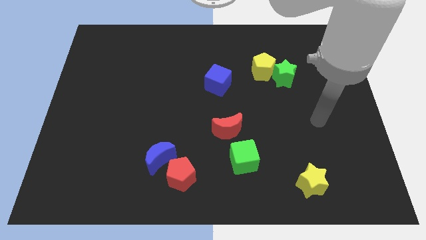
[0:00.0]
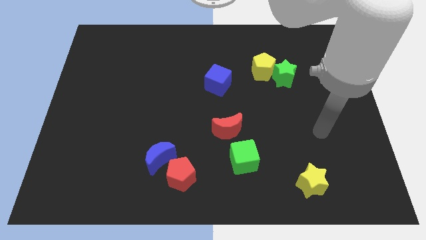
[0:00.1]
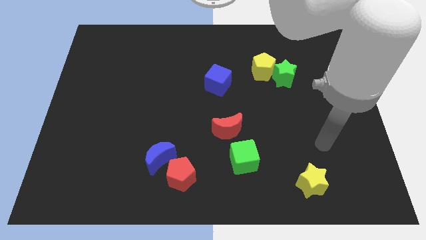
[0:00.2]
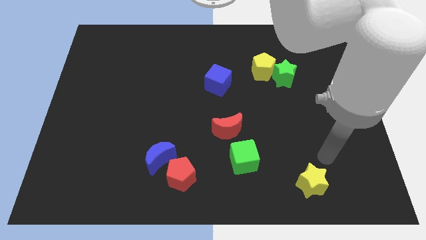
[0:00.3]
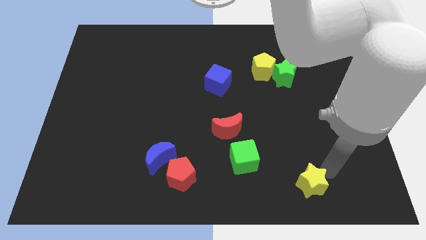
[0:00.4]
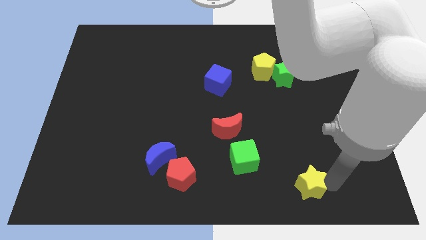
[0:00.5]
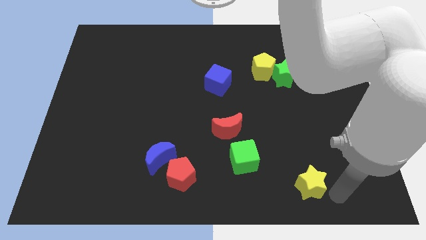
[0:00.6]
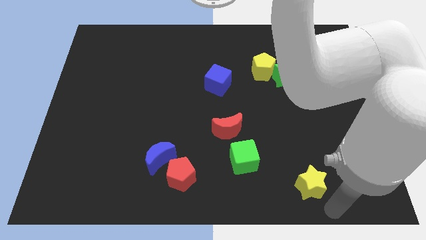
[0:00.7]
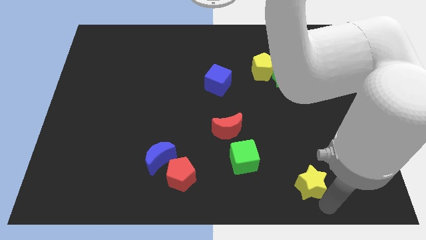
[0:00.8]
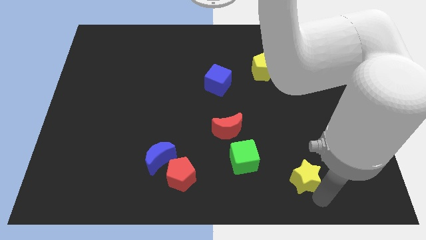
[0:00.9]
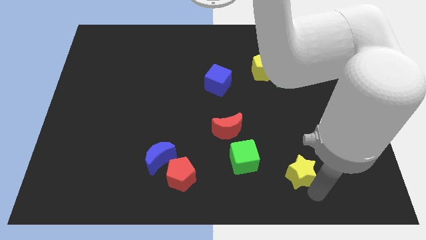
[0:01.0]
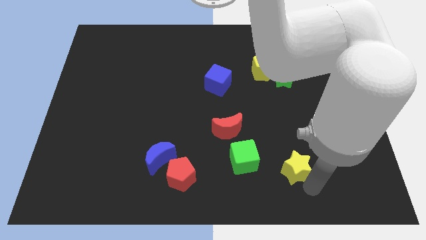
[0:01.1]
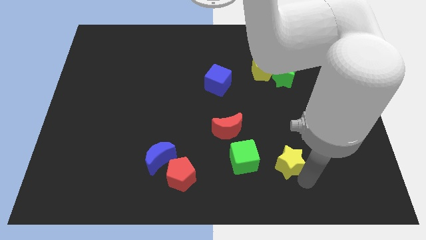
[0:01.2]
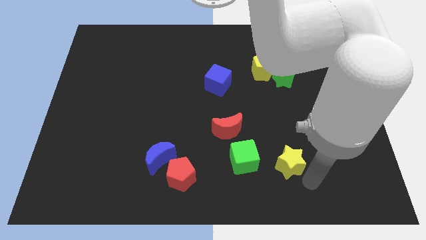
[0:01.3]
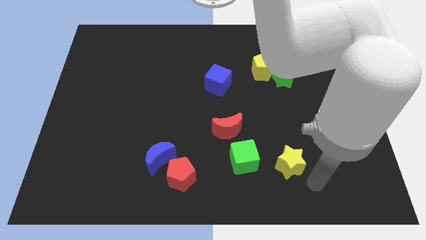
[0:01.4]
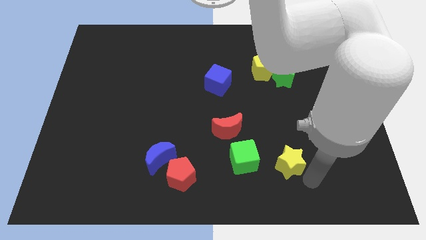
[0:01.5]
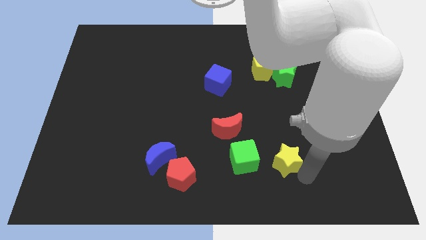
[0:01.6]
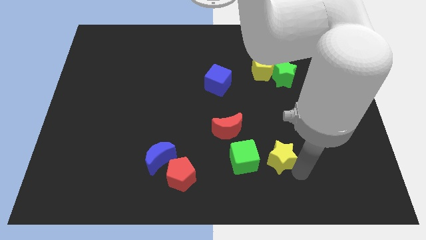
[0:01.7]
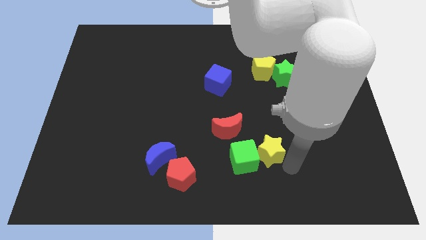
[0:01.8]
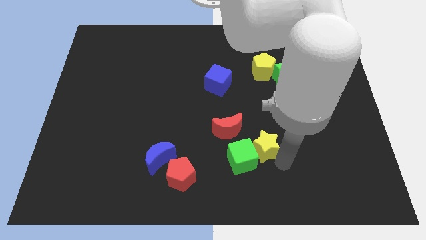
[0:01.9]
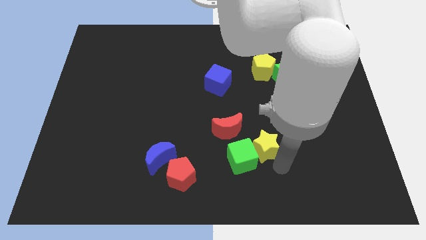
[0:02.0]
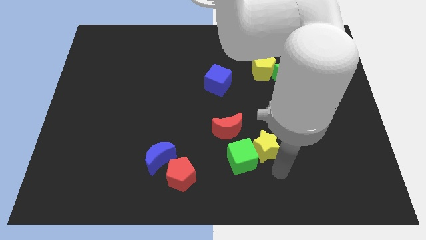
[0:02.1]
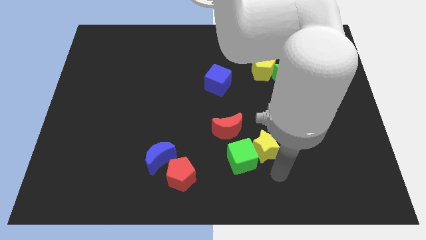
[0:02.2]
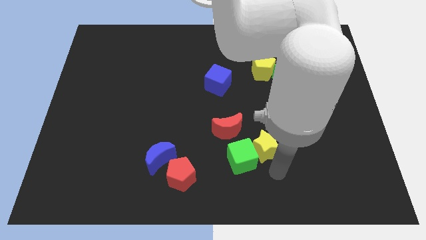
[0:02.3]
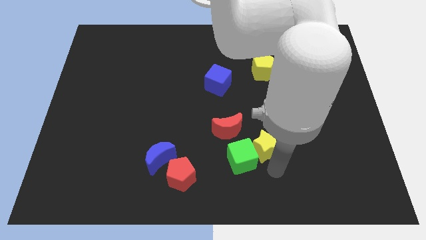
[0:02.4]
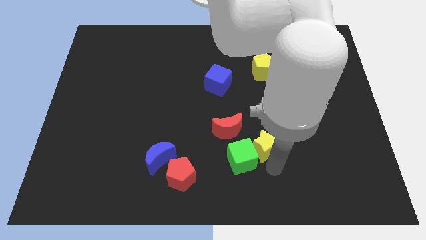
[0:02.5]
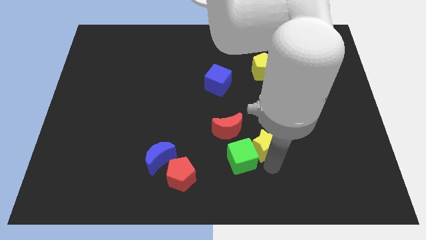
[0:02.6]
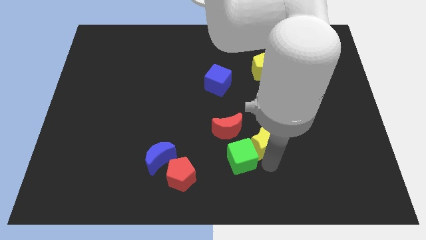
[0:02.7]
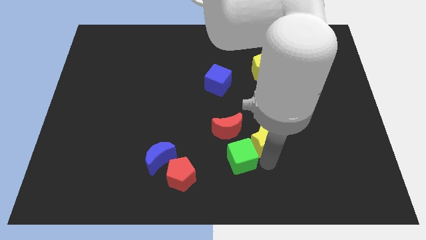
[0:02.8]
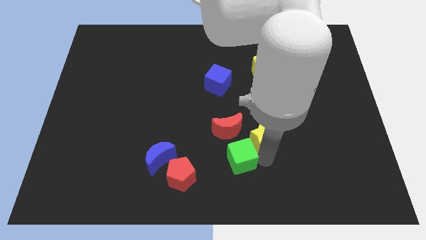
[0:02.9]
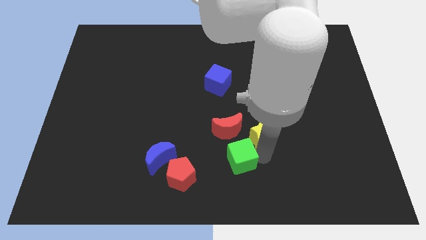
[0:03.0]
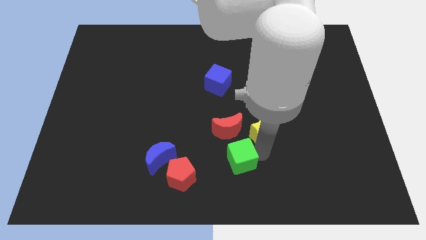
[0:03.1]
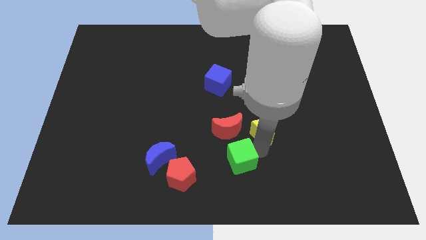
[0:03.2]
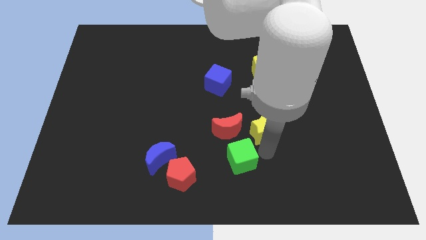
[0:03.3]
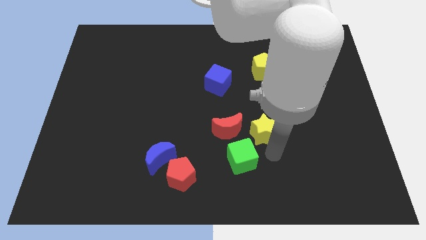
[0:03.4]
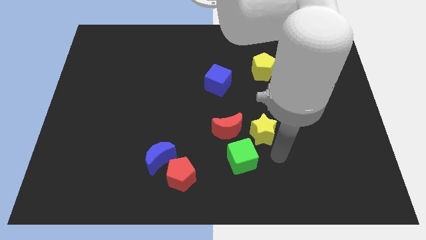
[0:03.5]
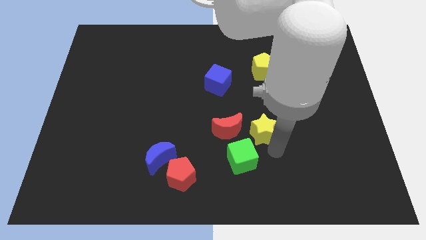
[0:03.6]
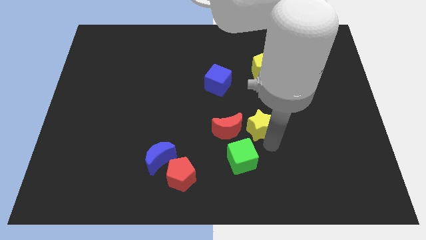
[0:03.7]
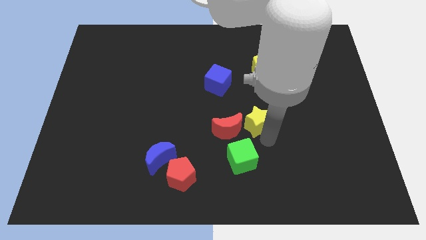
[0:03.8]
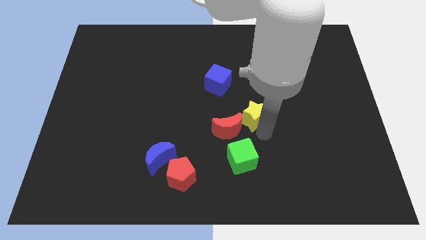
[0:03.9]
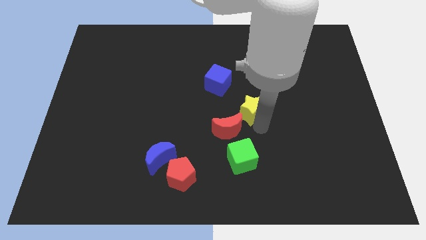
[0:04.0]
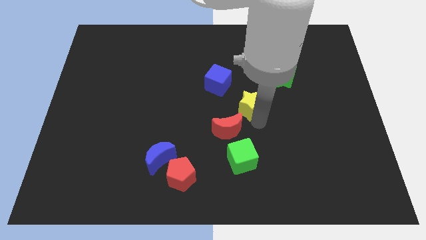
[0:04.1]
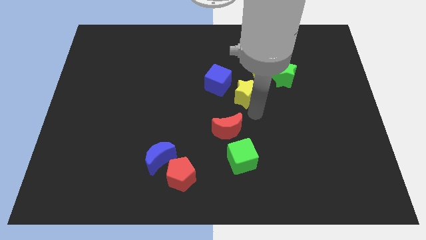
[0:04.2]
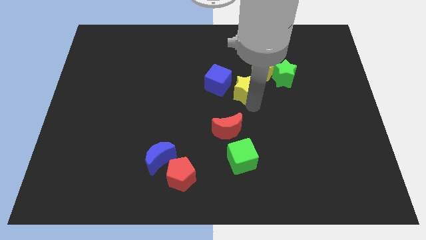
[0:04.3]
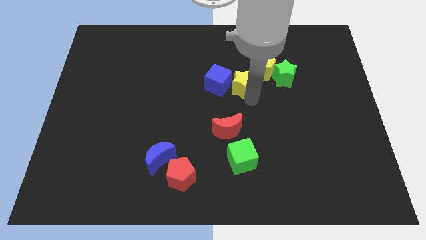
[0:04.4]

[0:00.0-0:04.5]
put the yellow star next to the blue cube

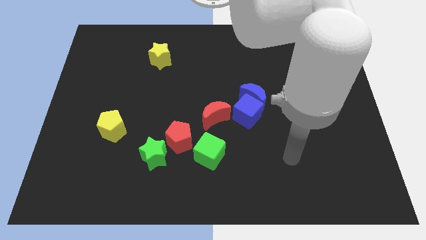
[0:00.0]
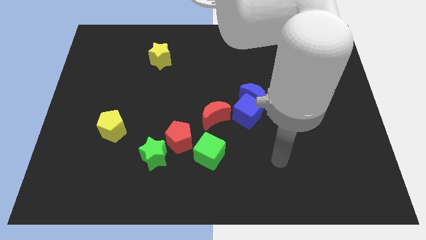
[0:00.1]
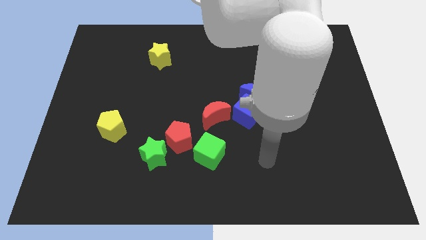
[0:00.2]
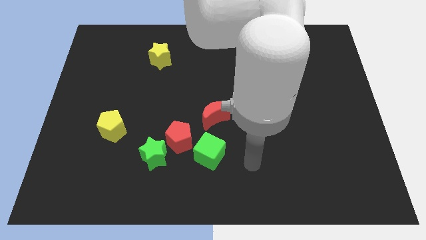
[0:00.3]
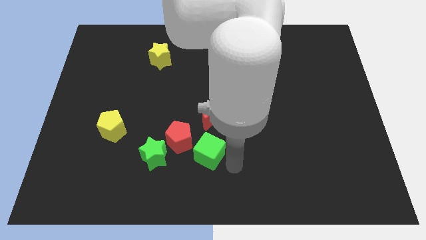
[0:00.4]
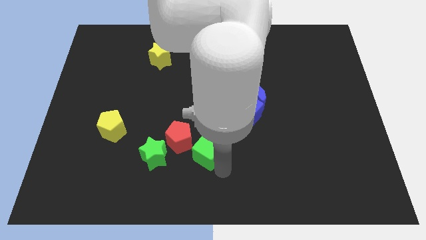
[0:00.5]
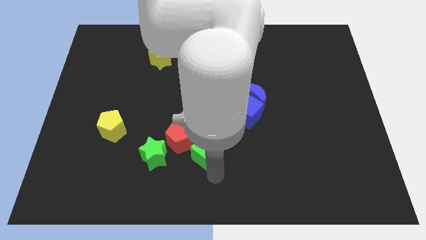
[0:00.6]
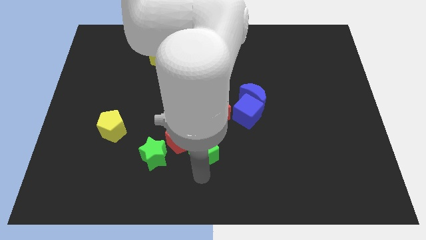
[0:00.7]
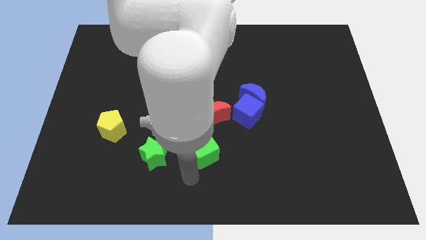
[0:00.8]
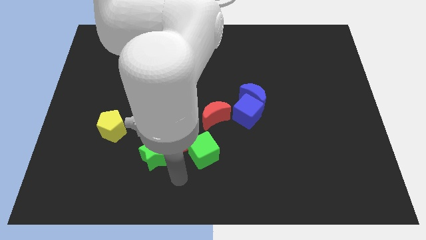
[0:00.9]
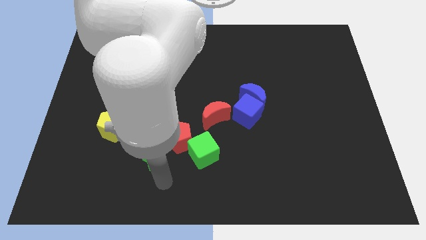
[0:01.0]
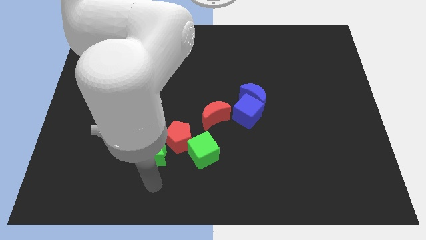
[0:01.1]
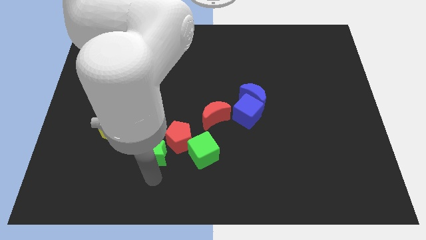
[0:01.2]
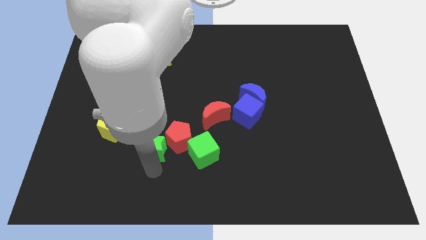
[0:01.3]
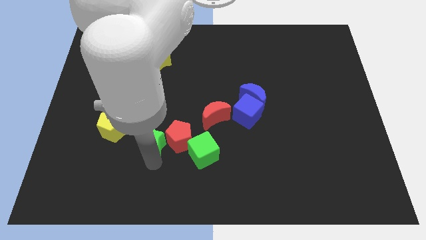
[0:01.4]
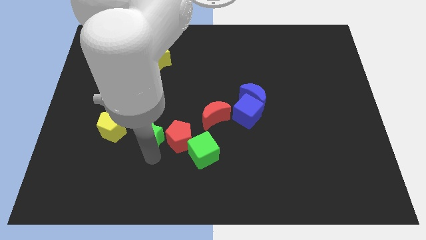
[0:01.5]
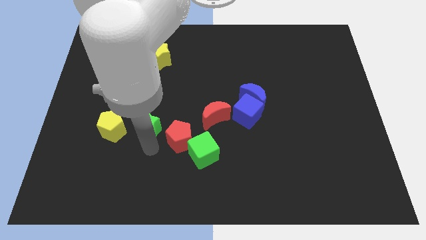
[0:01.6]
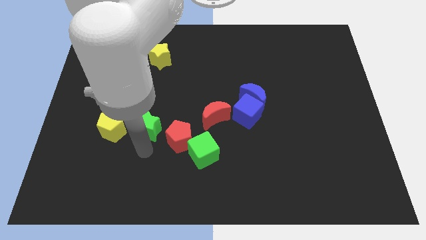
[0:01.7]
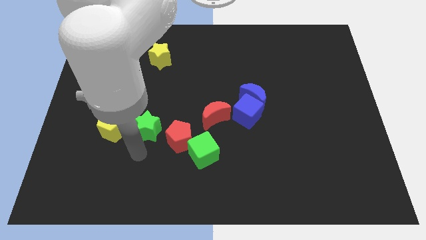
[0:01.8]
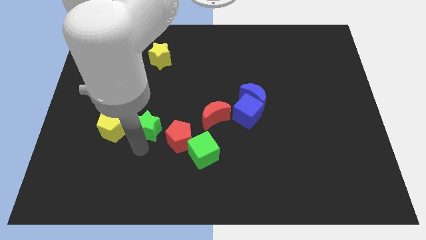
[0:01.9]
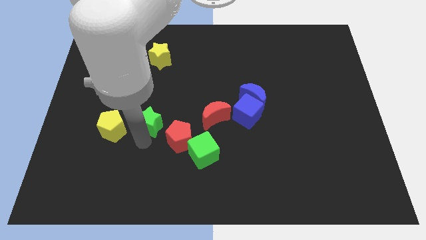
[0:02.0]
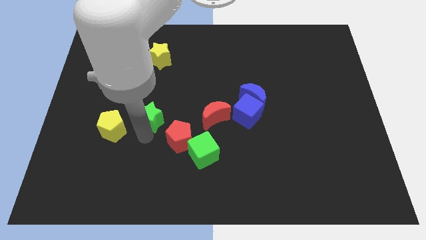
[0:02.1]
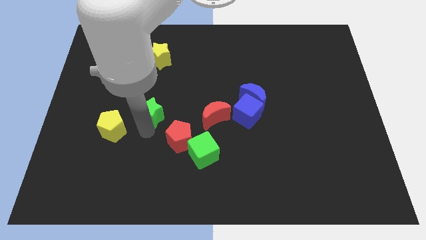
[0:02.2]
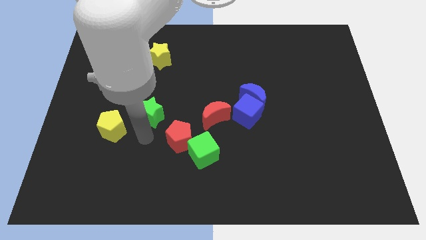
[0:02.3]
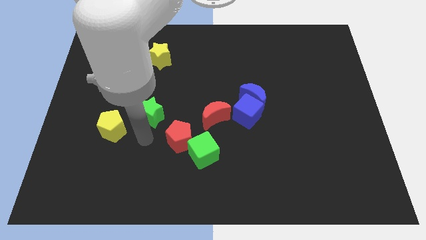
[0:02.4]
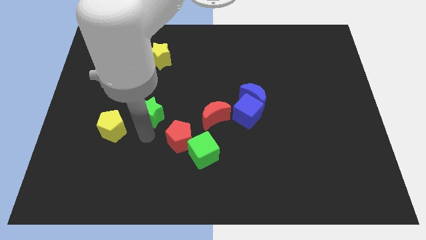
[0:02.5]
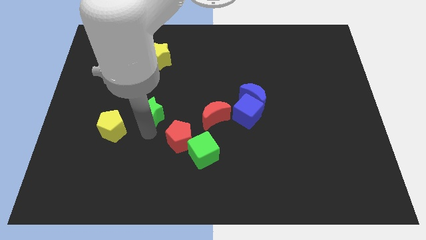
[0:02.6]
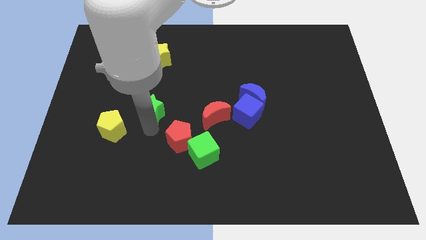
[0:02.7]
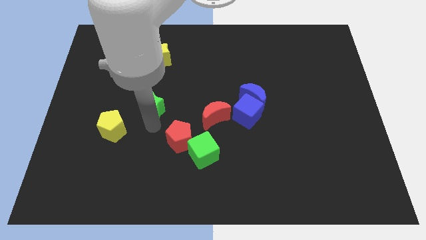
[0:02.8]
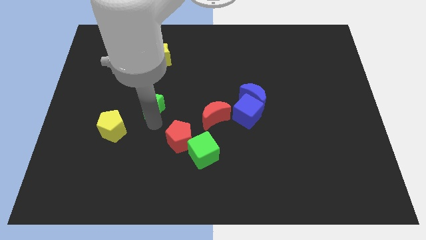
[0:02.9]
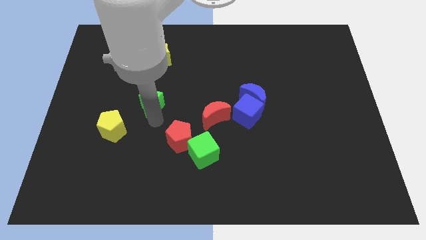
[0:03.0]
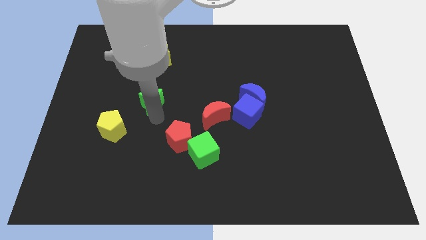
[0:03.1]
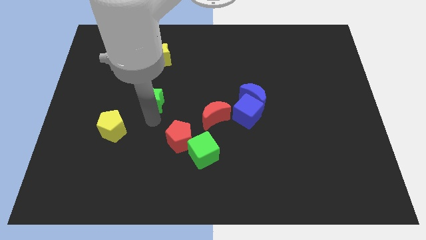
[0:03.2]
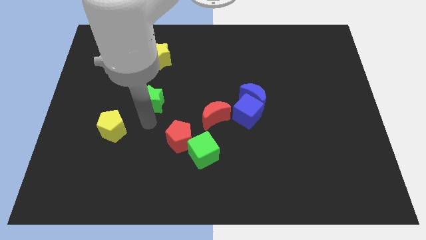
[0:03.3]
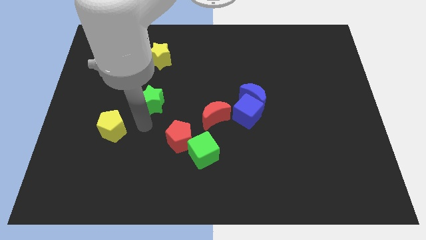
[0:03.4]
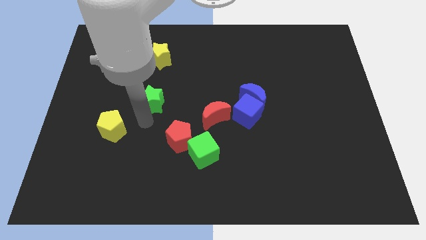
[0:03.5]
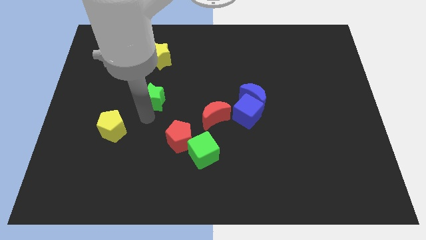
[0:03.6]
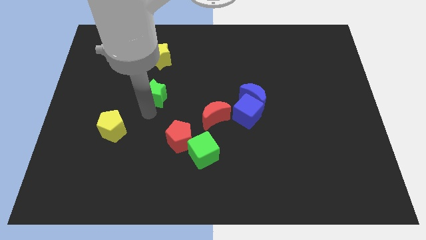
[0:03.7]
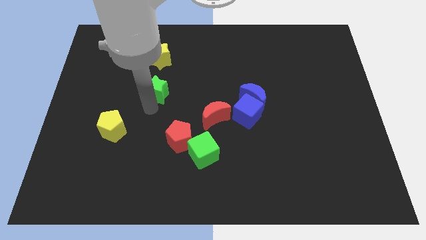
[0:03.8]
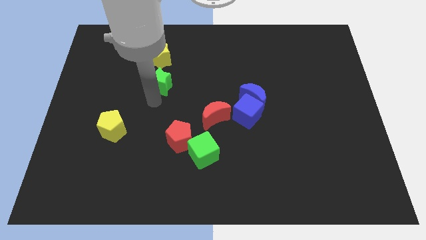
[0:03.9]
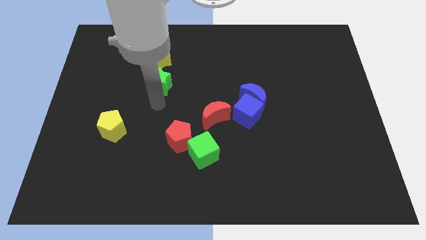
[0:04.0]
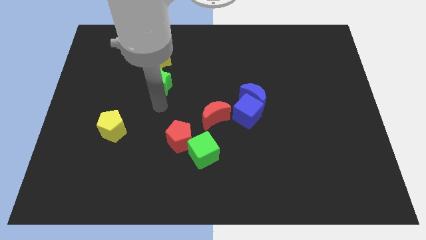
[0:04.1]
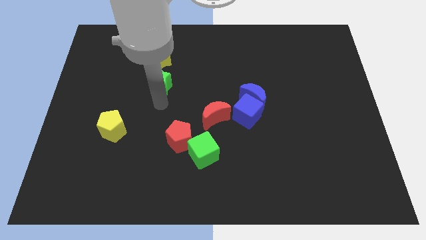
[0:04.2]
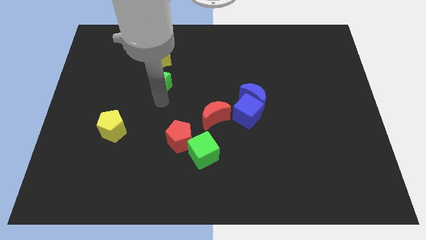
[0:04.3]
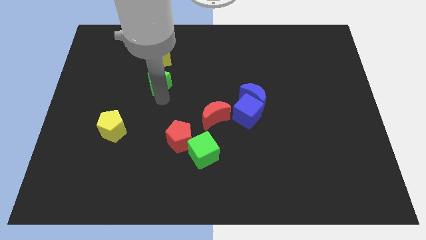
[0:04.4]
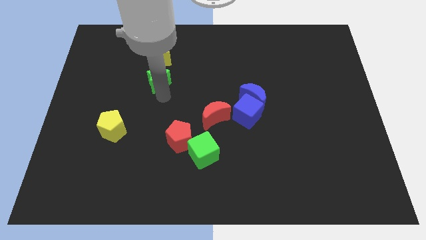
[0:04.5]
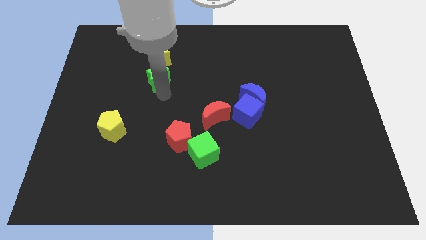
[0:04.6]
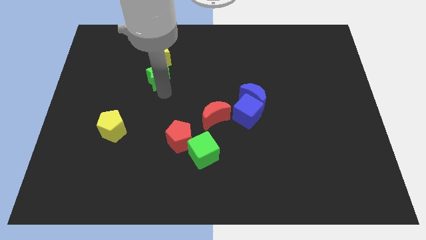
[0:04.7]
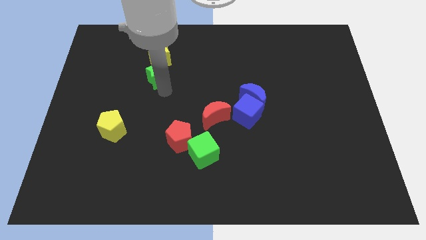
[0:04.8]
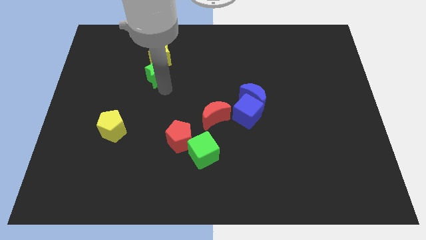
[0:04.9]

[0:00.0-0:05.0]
move the green star close to the yellow star
